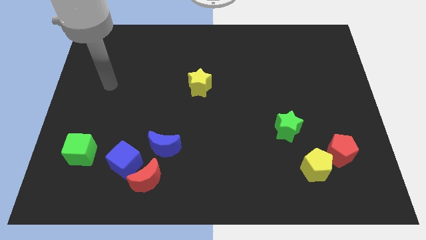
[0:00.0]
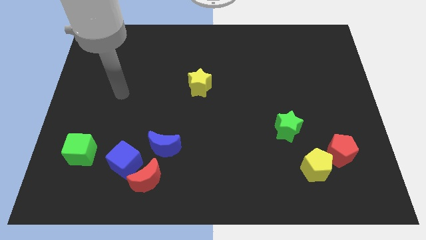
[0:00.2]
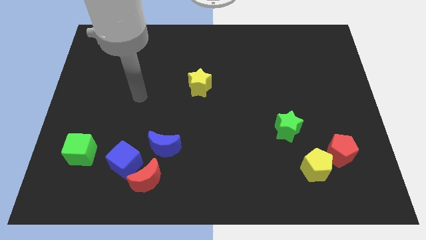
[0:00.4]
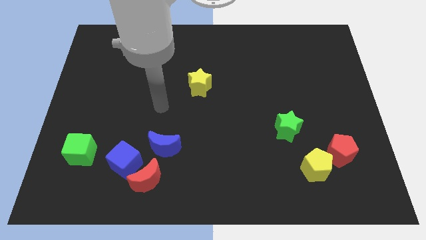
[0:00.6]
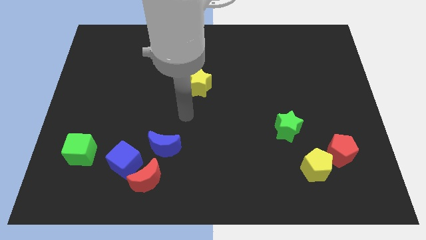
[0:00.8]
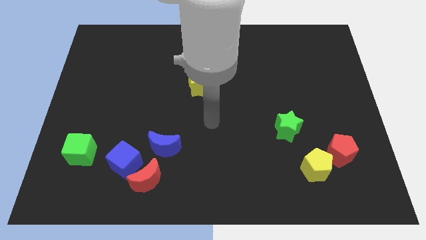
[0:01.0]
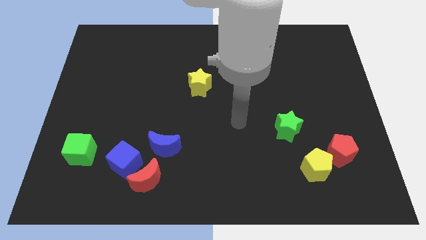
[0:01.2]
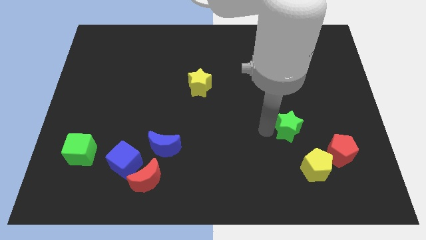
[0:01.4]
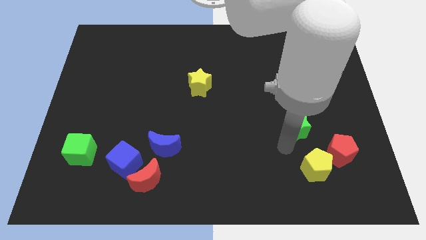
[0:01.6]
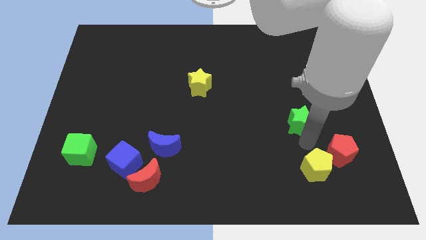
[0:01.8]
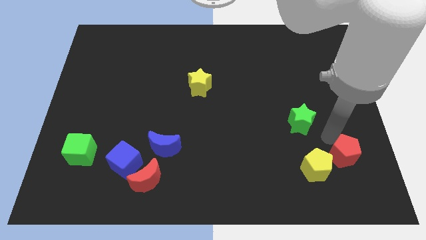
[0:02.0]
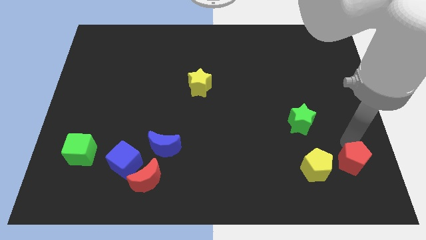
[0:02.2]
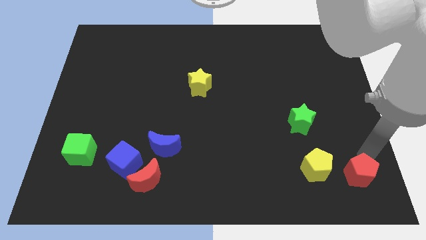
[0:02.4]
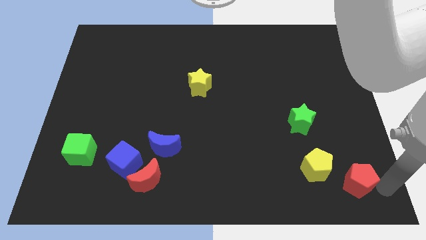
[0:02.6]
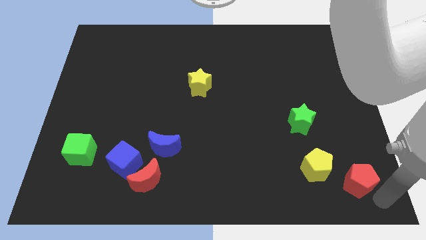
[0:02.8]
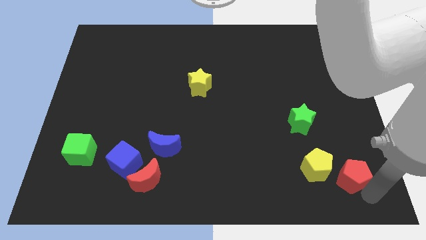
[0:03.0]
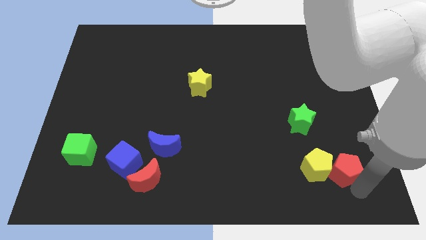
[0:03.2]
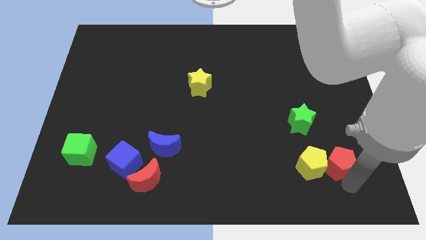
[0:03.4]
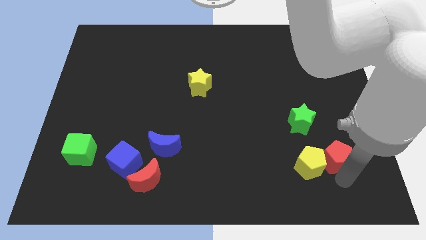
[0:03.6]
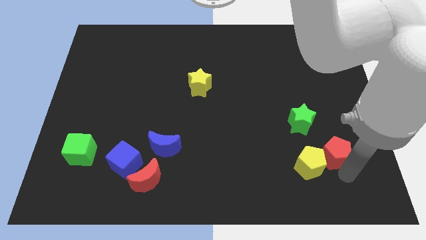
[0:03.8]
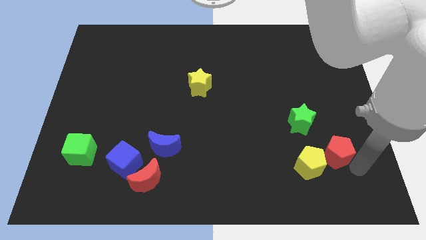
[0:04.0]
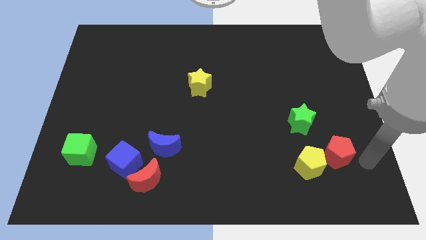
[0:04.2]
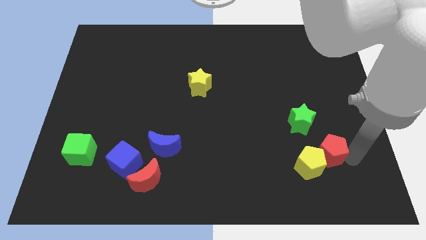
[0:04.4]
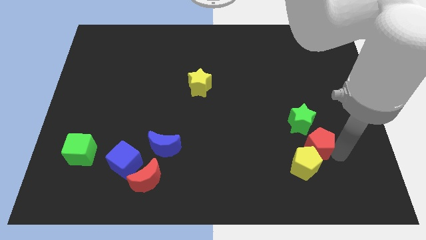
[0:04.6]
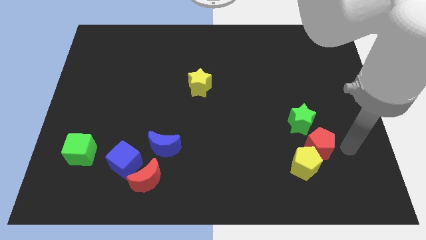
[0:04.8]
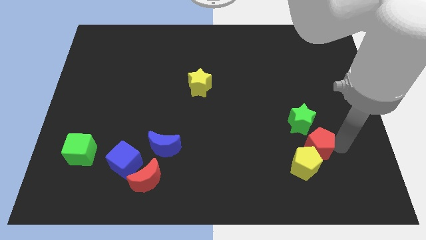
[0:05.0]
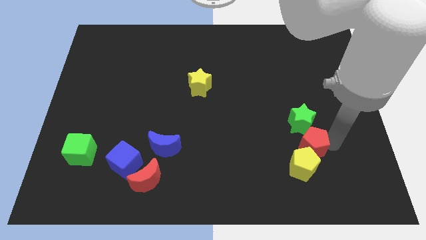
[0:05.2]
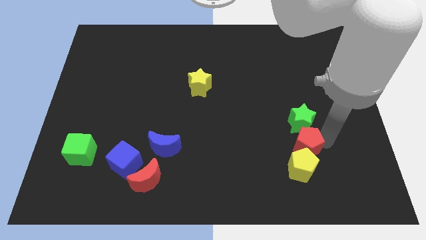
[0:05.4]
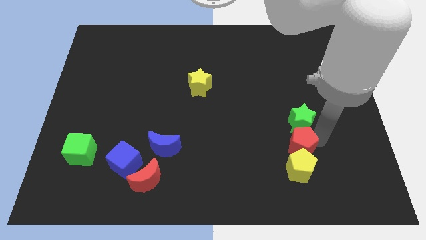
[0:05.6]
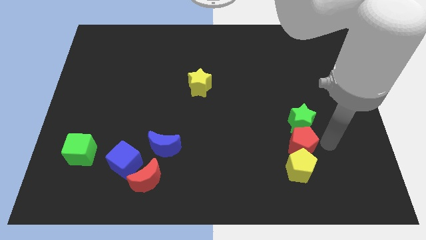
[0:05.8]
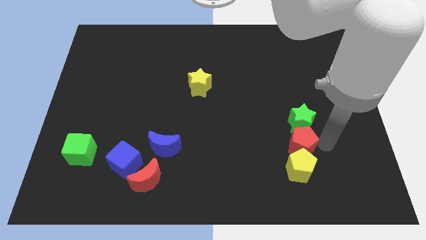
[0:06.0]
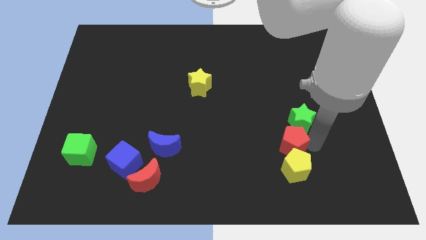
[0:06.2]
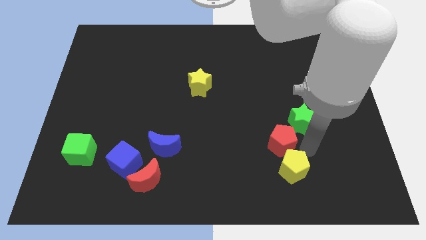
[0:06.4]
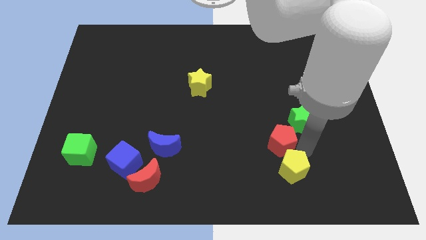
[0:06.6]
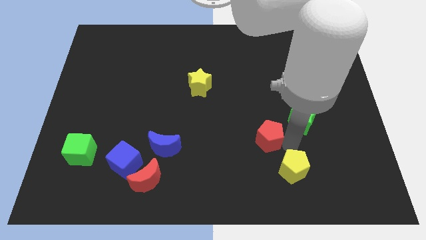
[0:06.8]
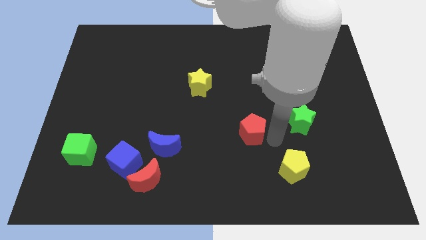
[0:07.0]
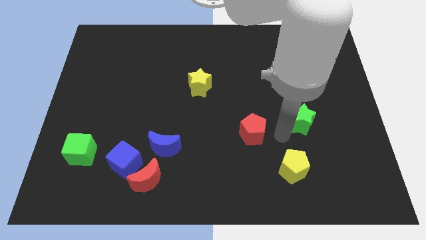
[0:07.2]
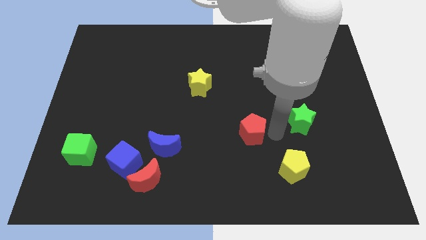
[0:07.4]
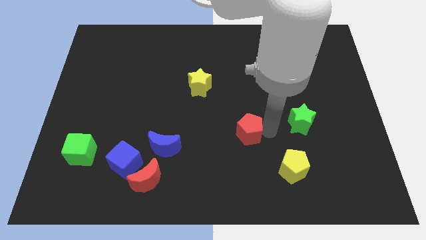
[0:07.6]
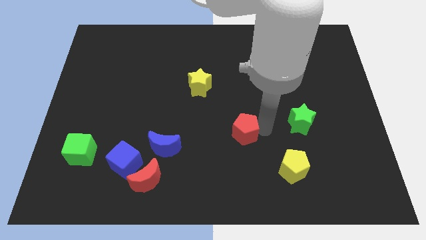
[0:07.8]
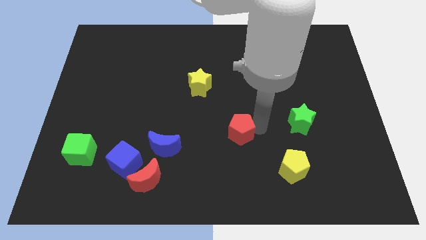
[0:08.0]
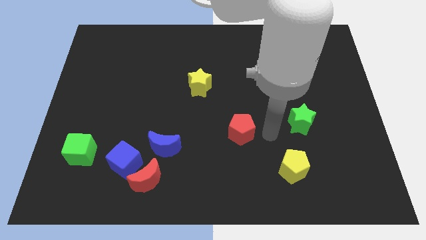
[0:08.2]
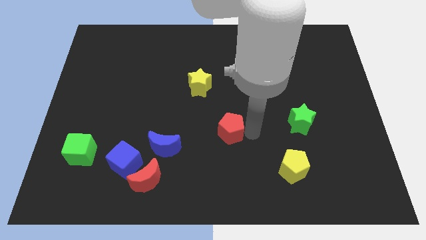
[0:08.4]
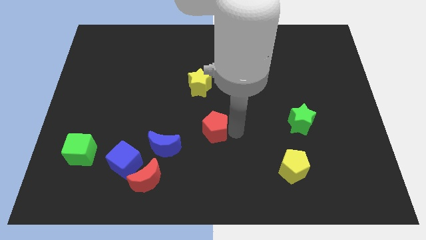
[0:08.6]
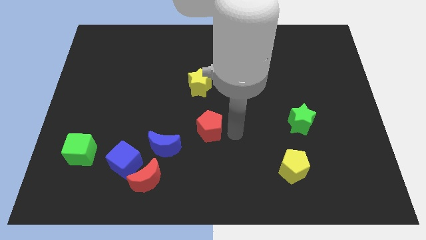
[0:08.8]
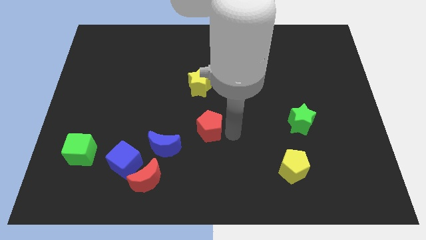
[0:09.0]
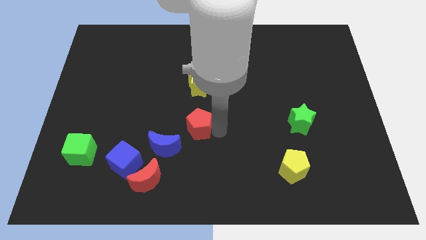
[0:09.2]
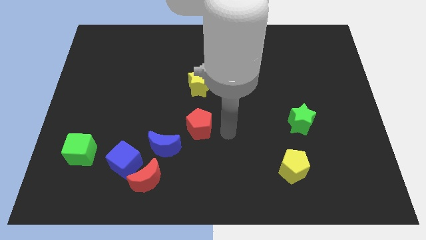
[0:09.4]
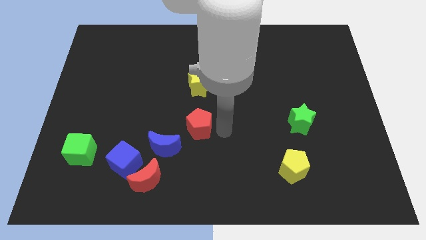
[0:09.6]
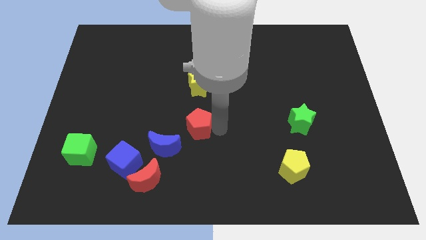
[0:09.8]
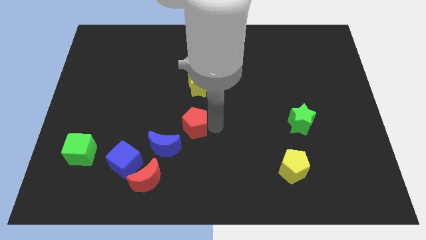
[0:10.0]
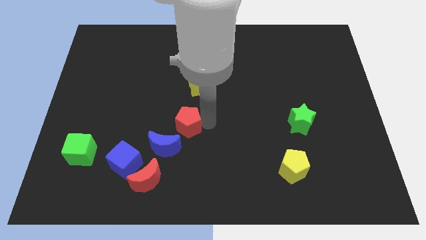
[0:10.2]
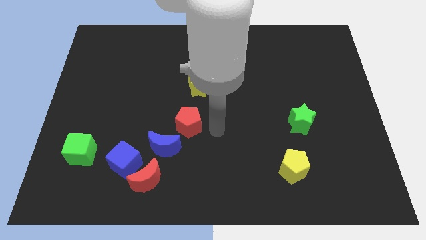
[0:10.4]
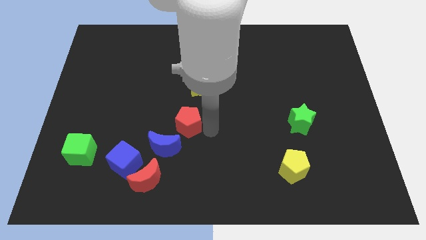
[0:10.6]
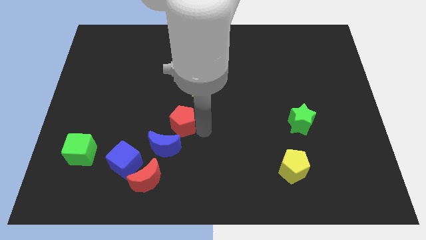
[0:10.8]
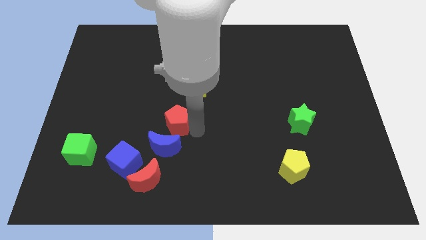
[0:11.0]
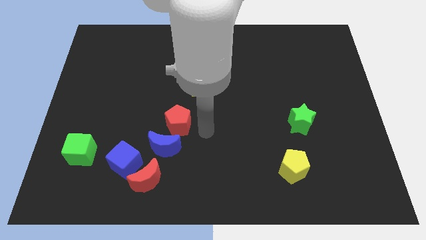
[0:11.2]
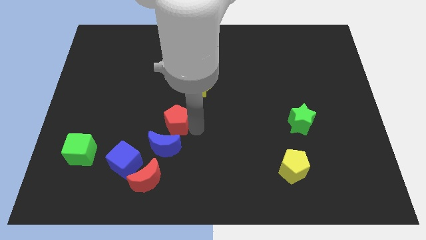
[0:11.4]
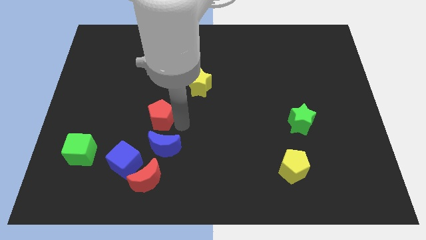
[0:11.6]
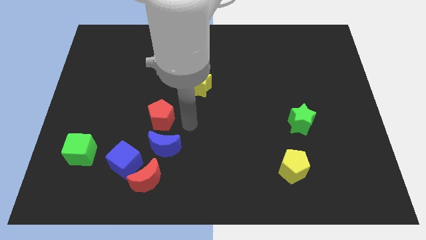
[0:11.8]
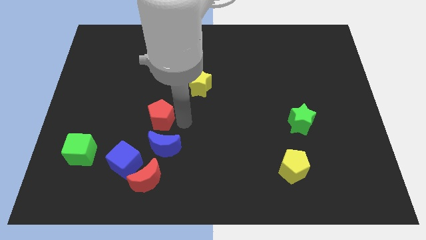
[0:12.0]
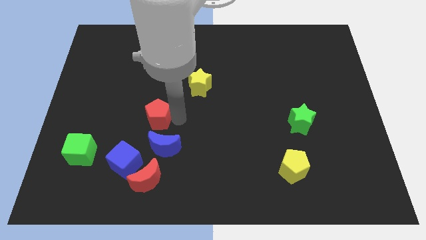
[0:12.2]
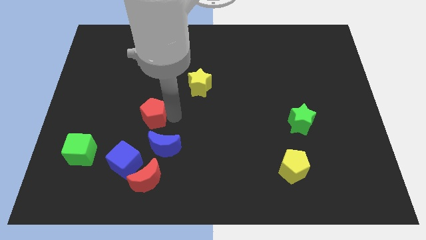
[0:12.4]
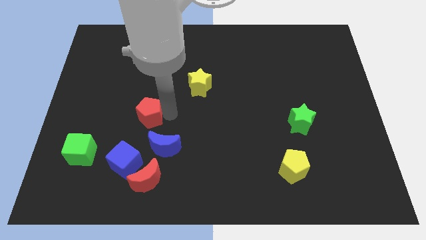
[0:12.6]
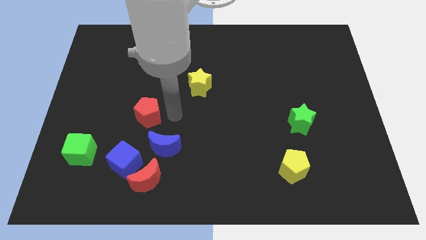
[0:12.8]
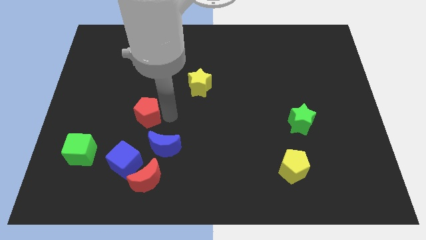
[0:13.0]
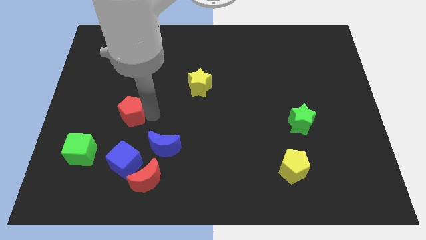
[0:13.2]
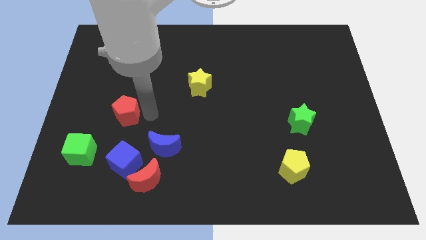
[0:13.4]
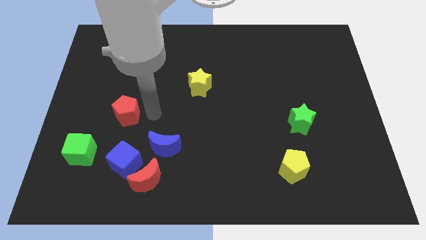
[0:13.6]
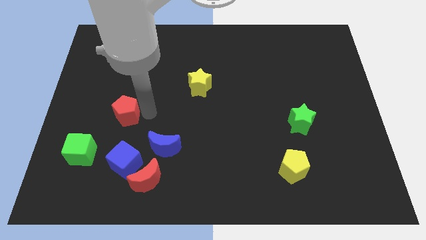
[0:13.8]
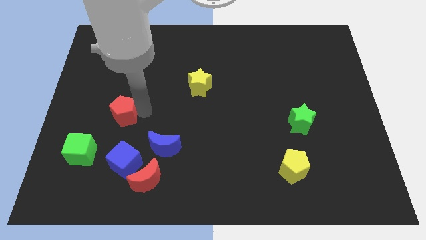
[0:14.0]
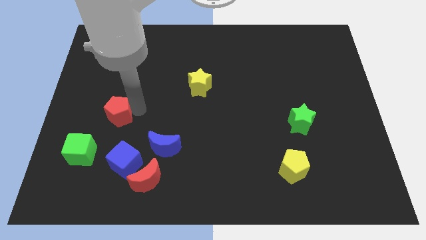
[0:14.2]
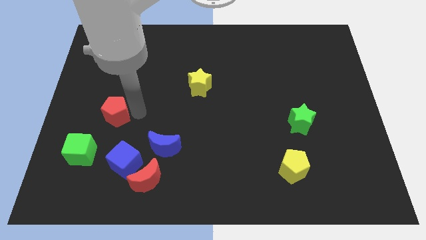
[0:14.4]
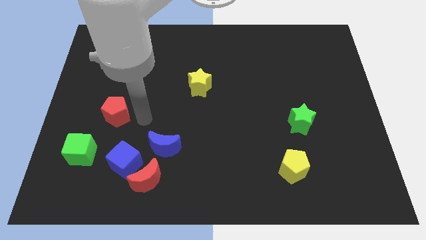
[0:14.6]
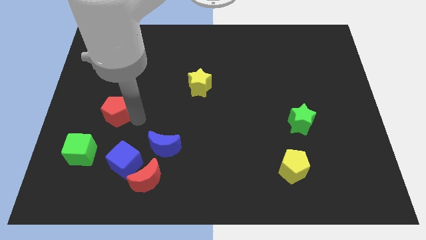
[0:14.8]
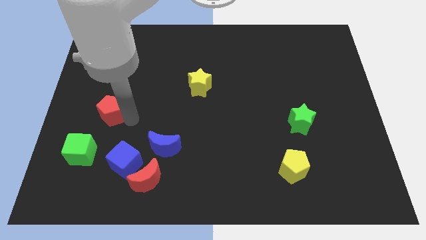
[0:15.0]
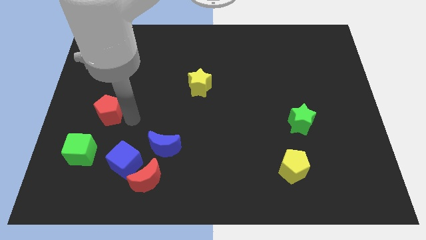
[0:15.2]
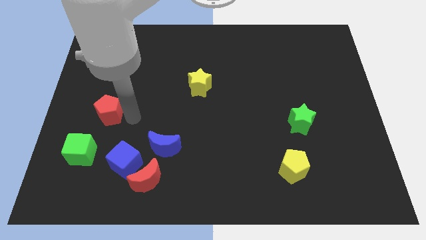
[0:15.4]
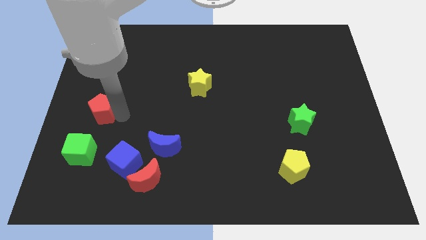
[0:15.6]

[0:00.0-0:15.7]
move the red pentagon to the center left

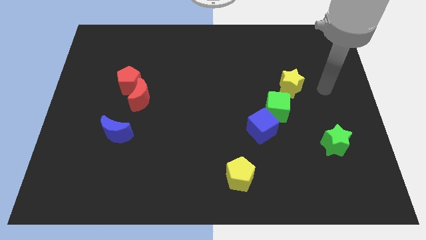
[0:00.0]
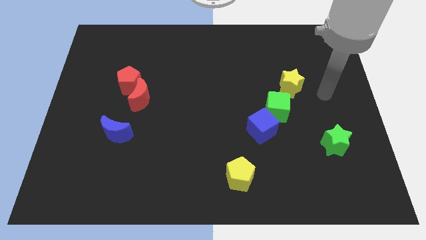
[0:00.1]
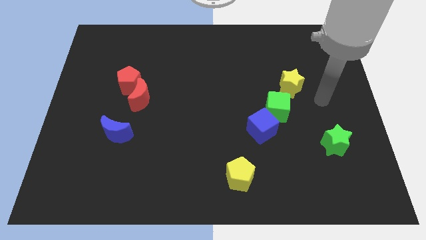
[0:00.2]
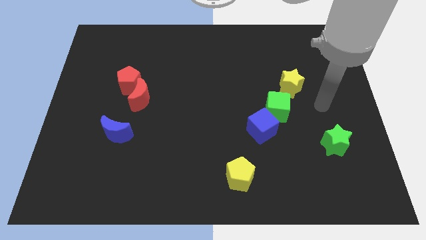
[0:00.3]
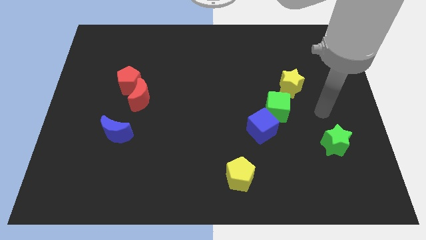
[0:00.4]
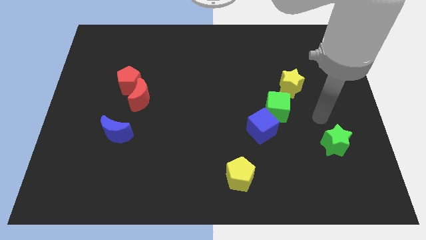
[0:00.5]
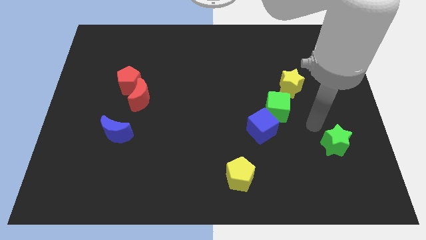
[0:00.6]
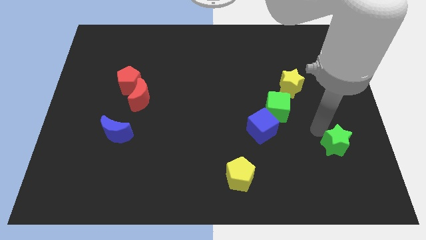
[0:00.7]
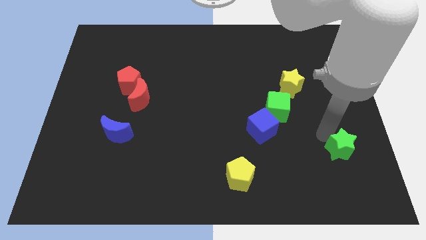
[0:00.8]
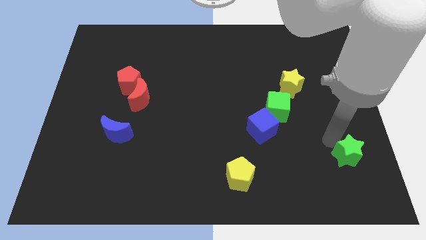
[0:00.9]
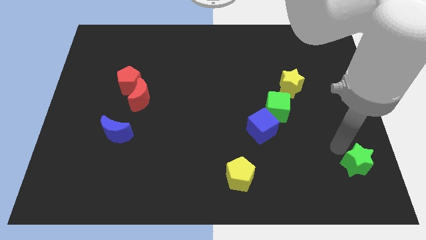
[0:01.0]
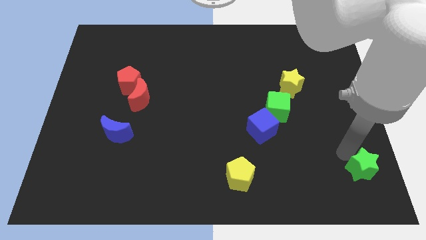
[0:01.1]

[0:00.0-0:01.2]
move the green star to the bottom right corner
